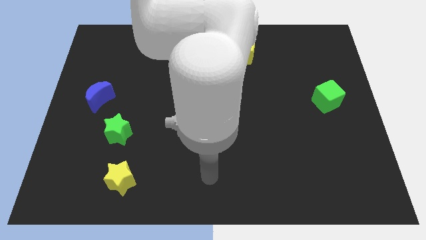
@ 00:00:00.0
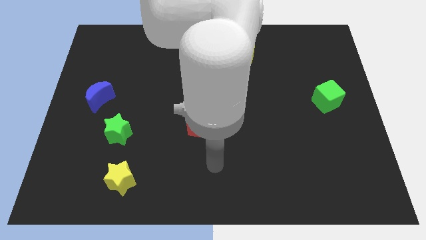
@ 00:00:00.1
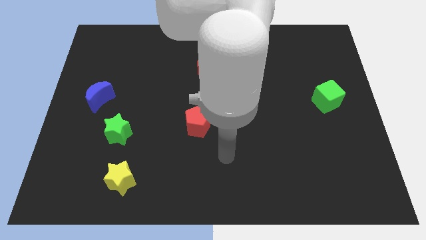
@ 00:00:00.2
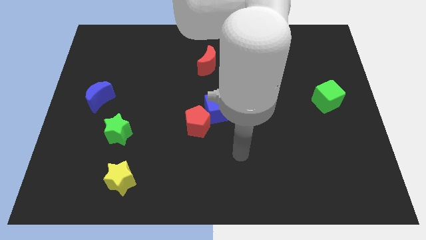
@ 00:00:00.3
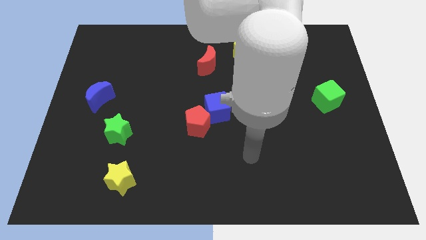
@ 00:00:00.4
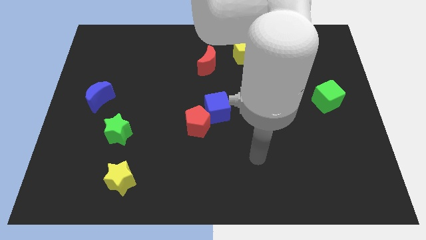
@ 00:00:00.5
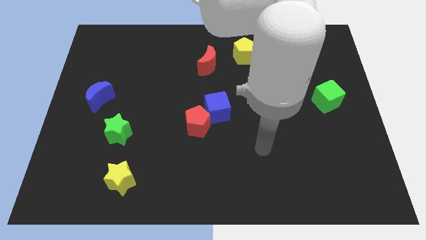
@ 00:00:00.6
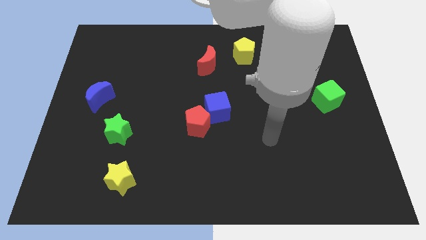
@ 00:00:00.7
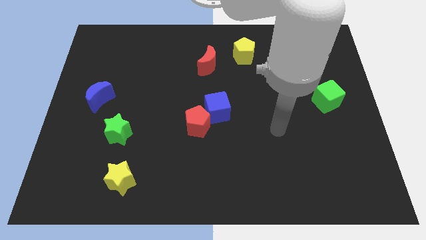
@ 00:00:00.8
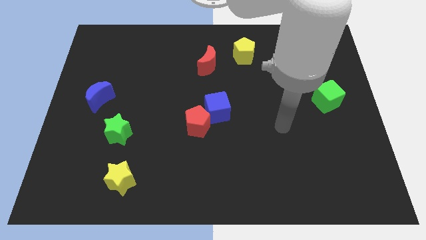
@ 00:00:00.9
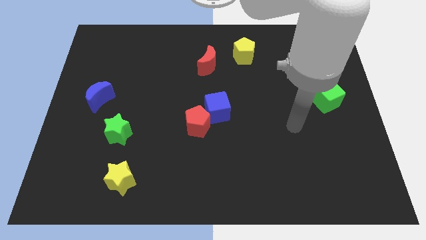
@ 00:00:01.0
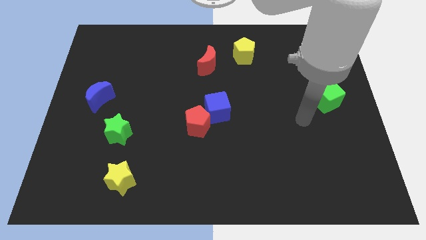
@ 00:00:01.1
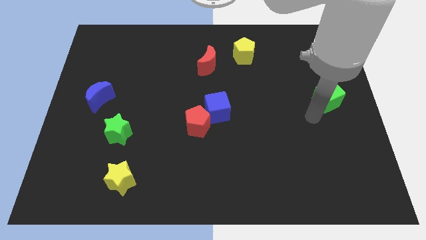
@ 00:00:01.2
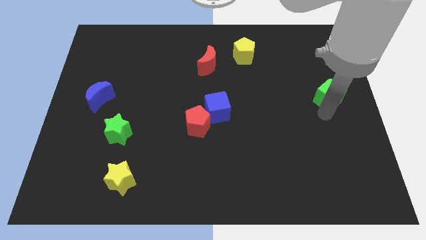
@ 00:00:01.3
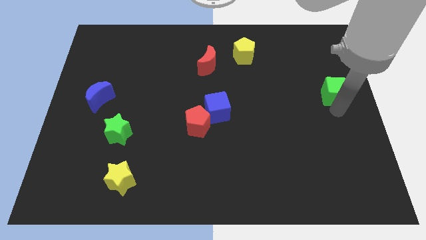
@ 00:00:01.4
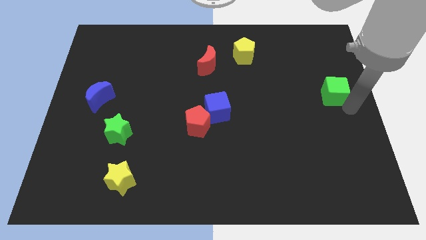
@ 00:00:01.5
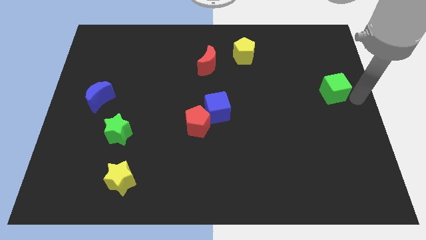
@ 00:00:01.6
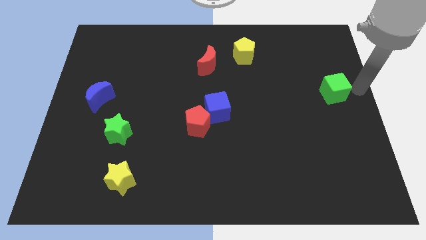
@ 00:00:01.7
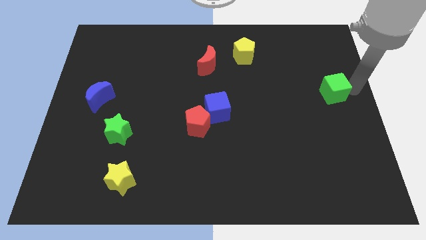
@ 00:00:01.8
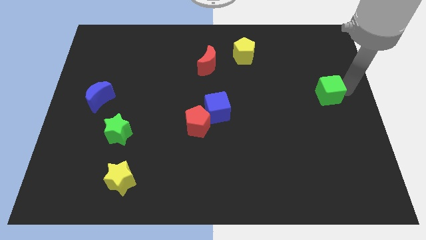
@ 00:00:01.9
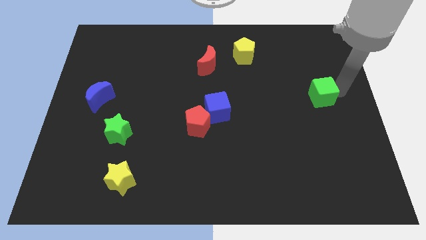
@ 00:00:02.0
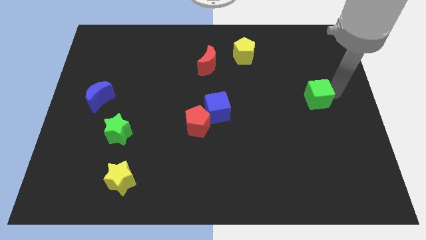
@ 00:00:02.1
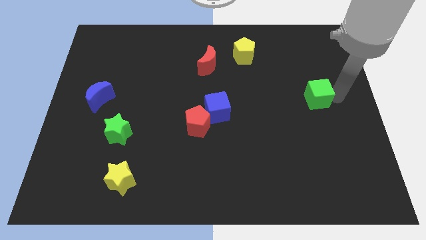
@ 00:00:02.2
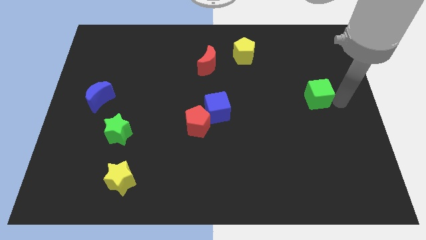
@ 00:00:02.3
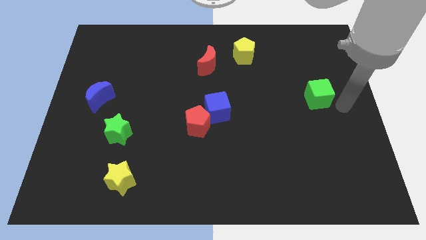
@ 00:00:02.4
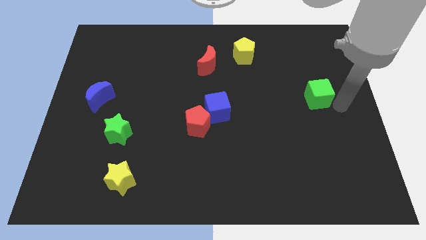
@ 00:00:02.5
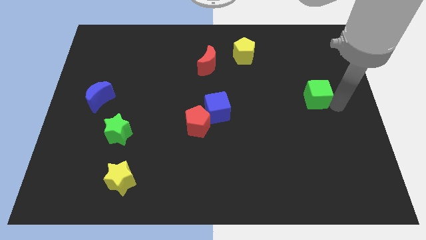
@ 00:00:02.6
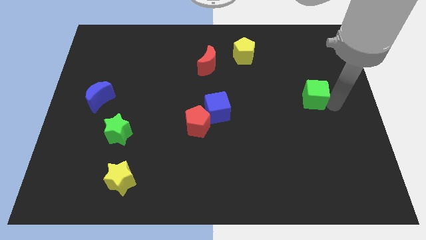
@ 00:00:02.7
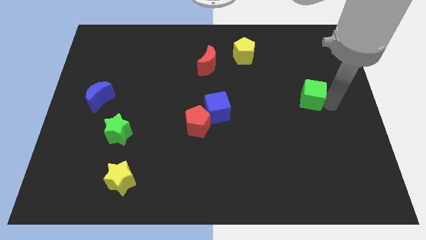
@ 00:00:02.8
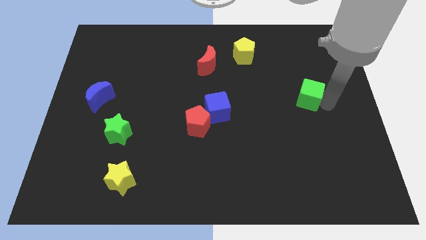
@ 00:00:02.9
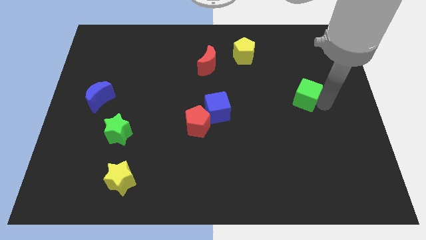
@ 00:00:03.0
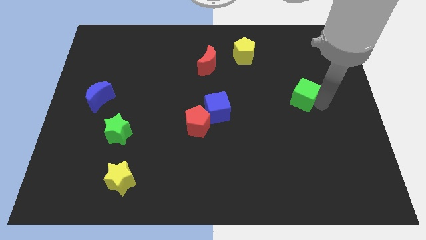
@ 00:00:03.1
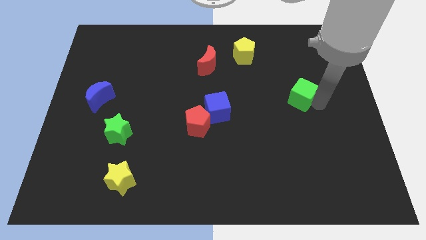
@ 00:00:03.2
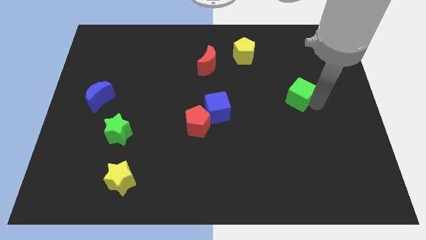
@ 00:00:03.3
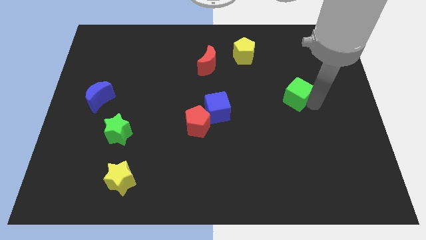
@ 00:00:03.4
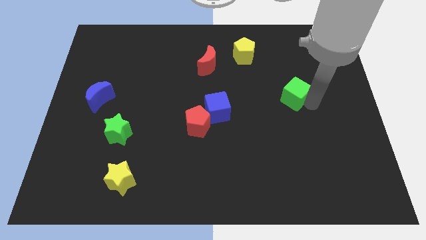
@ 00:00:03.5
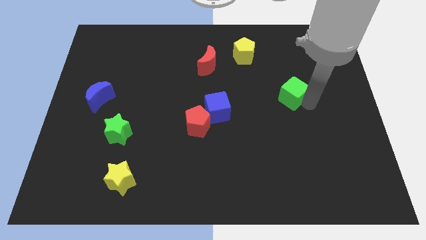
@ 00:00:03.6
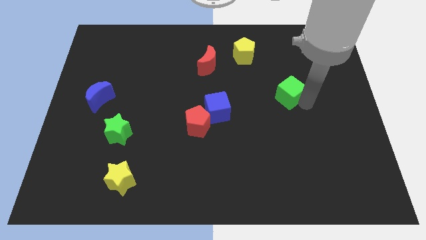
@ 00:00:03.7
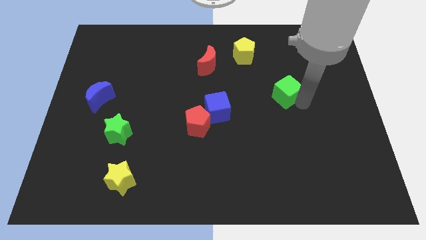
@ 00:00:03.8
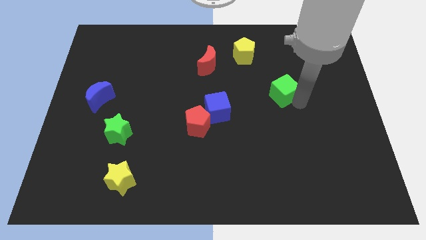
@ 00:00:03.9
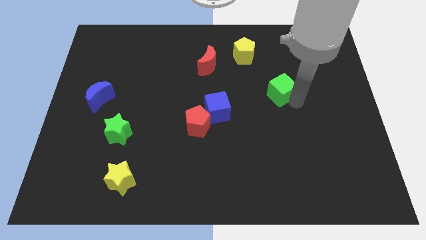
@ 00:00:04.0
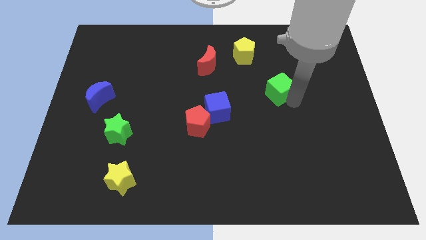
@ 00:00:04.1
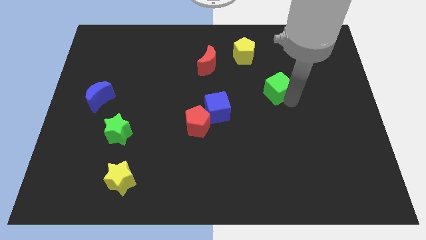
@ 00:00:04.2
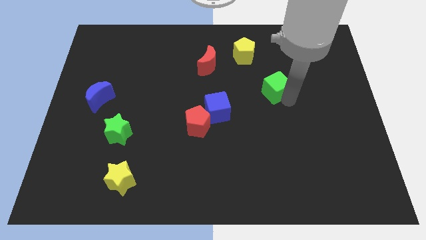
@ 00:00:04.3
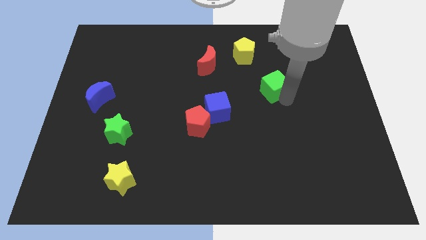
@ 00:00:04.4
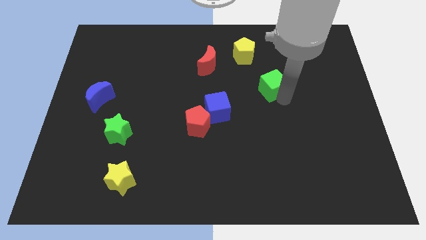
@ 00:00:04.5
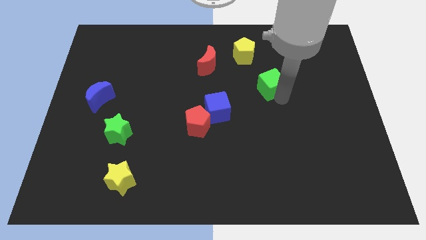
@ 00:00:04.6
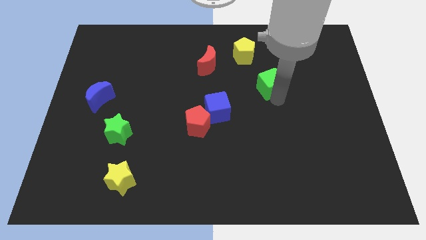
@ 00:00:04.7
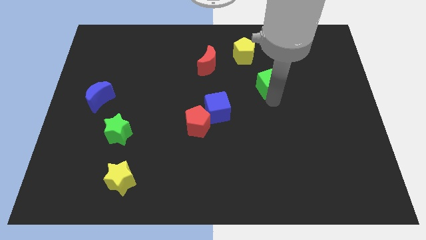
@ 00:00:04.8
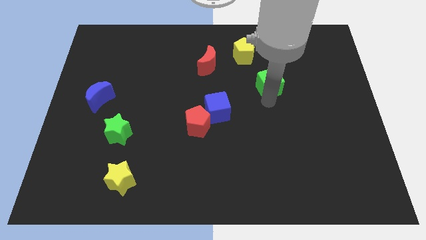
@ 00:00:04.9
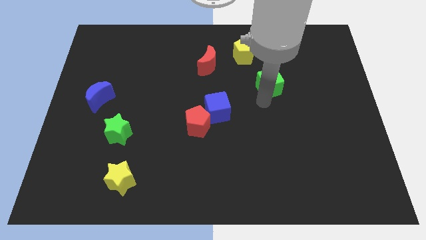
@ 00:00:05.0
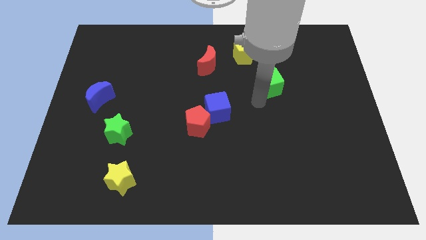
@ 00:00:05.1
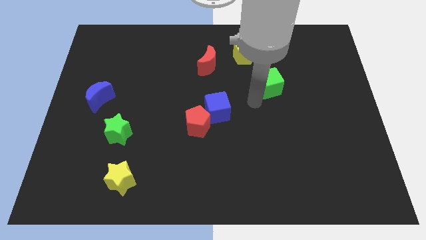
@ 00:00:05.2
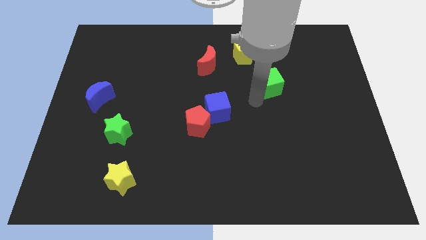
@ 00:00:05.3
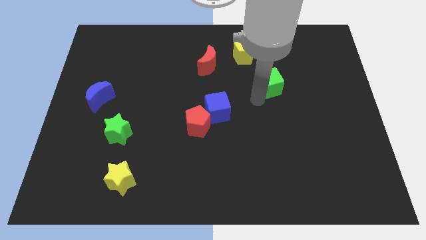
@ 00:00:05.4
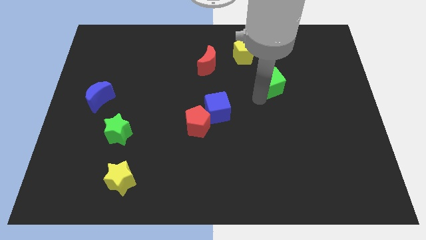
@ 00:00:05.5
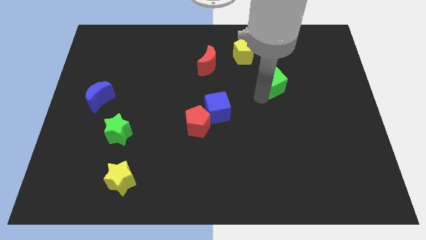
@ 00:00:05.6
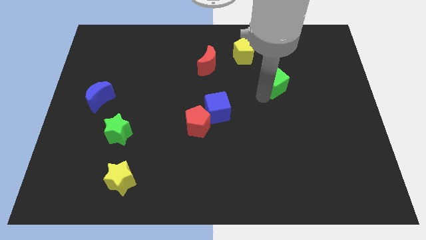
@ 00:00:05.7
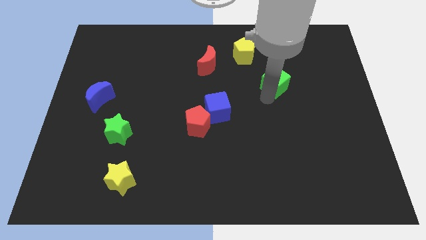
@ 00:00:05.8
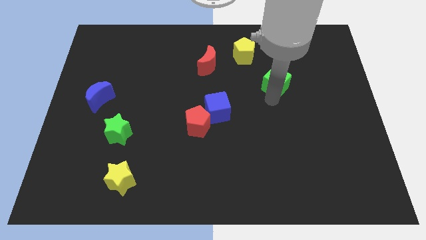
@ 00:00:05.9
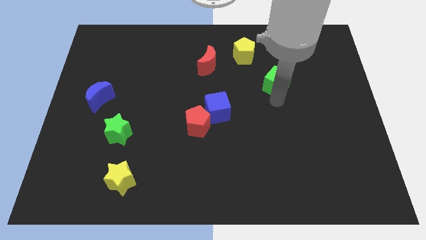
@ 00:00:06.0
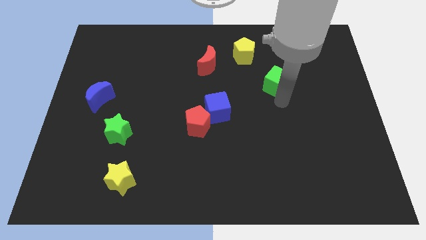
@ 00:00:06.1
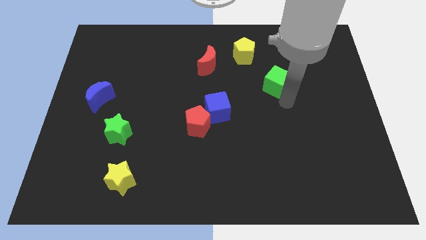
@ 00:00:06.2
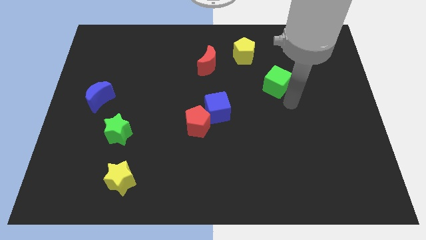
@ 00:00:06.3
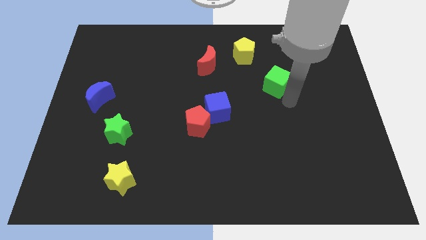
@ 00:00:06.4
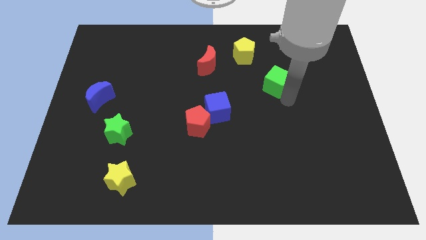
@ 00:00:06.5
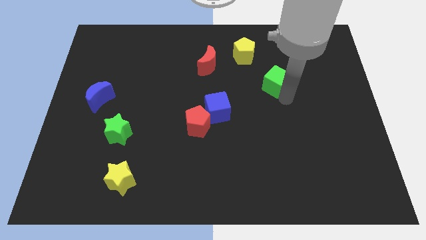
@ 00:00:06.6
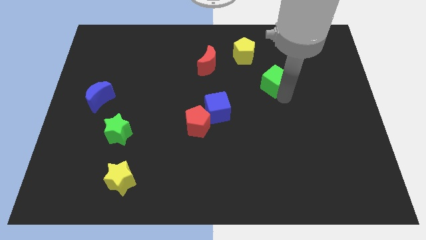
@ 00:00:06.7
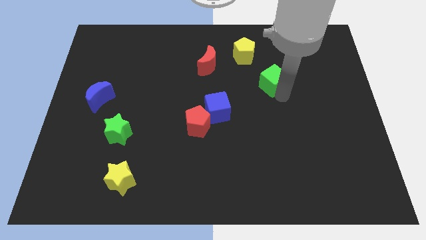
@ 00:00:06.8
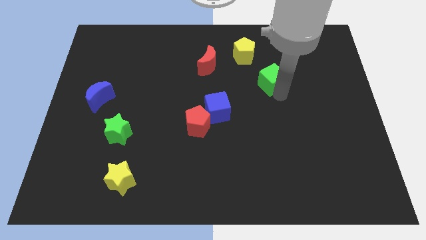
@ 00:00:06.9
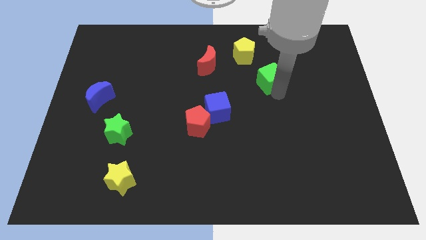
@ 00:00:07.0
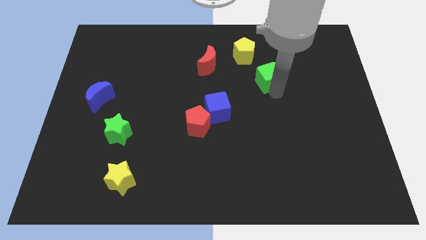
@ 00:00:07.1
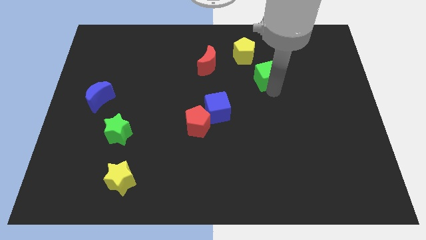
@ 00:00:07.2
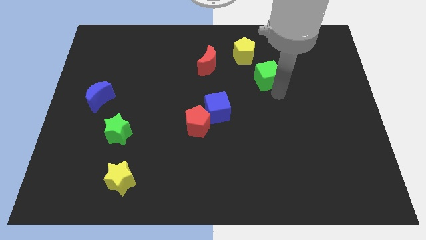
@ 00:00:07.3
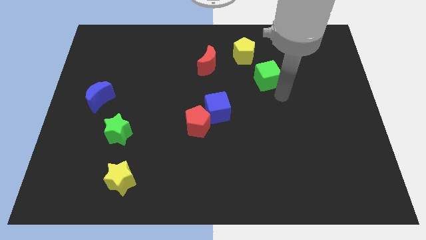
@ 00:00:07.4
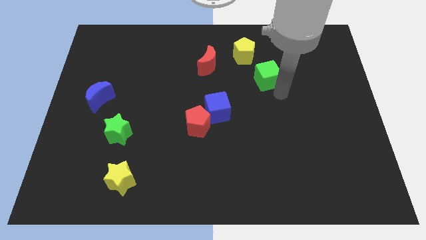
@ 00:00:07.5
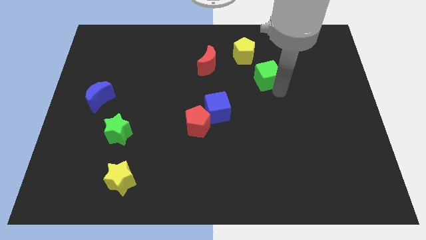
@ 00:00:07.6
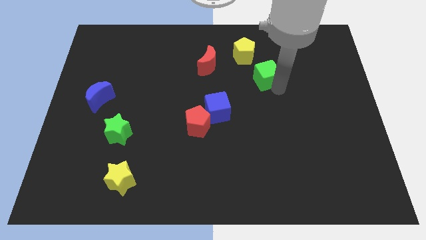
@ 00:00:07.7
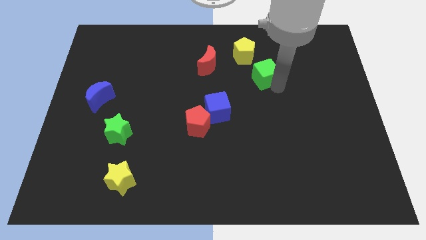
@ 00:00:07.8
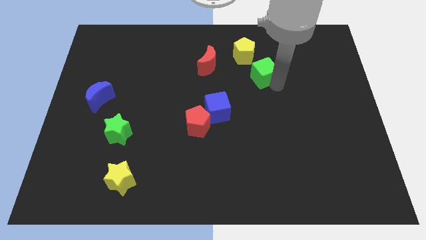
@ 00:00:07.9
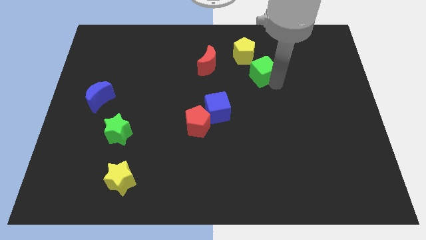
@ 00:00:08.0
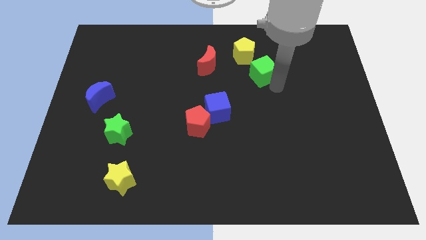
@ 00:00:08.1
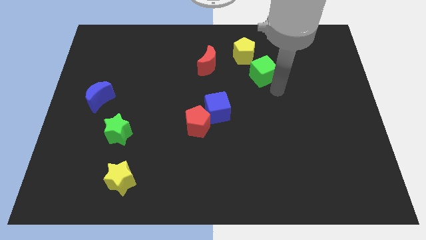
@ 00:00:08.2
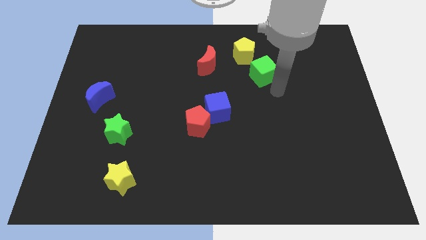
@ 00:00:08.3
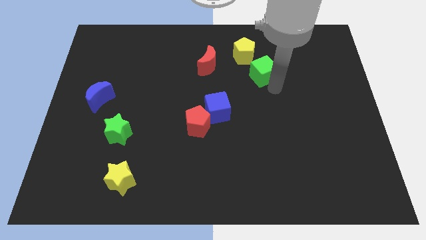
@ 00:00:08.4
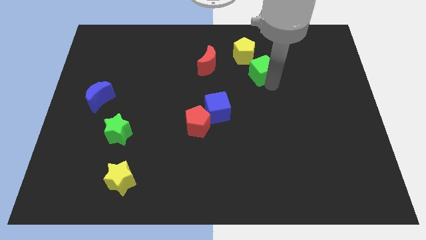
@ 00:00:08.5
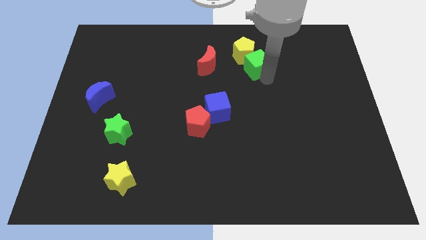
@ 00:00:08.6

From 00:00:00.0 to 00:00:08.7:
push the green cube to the yellow pentagon
